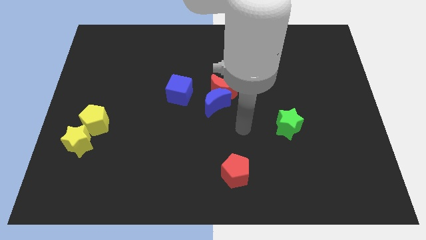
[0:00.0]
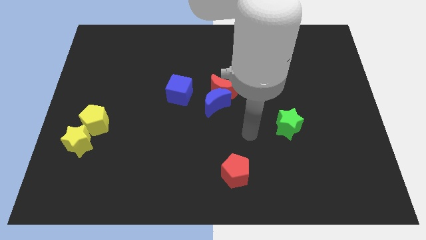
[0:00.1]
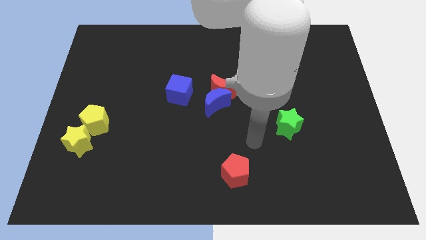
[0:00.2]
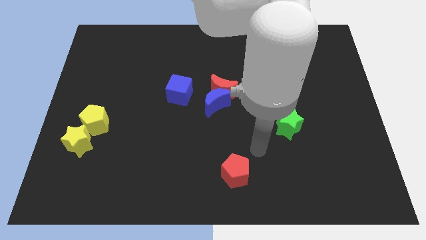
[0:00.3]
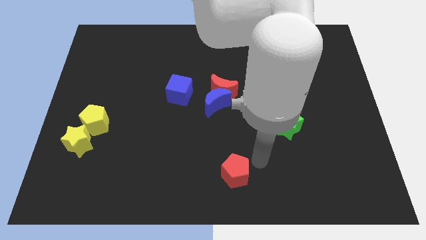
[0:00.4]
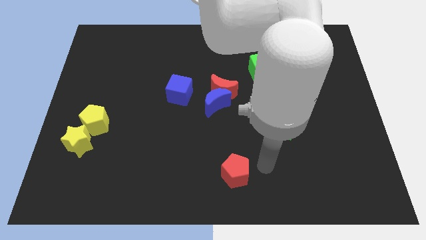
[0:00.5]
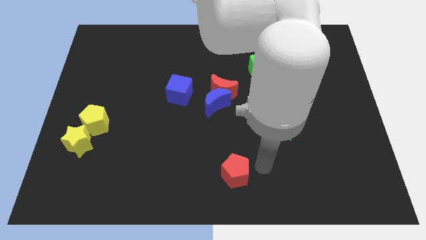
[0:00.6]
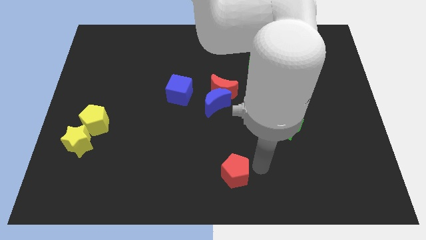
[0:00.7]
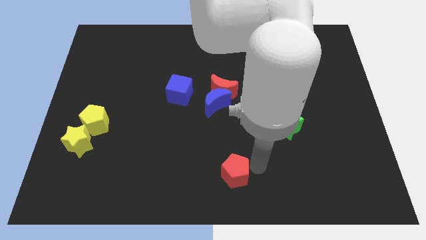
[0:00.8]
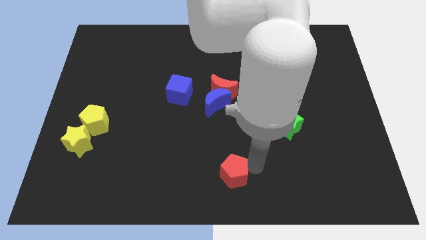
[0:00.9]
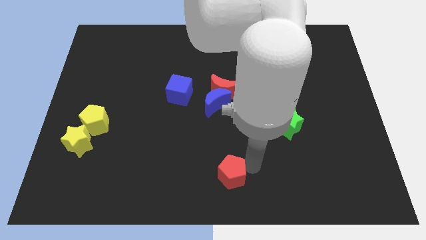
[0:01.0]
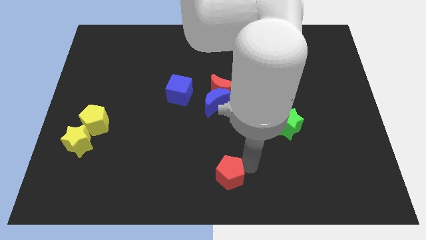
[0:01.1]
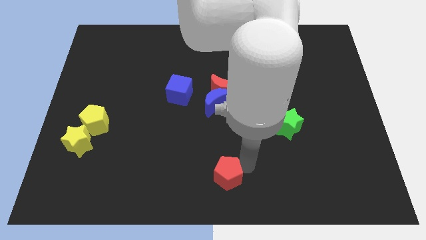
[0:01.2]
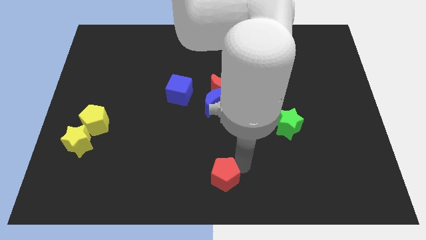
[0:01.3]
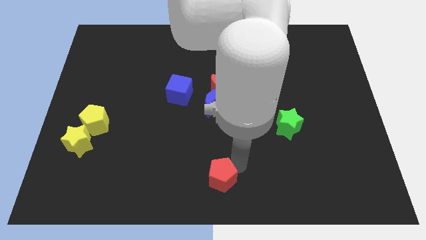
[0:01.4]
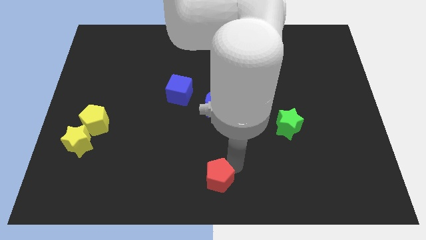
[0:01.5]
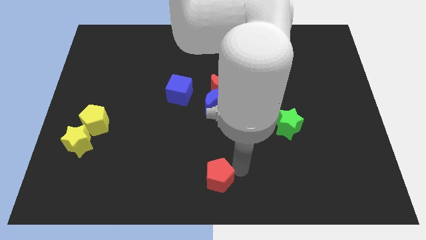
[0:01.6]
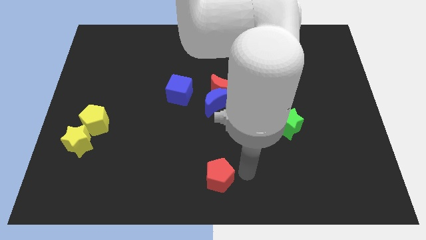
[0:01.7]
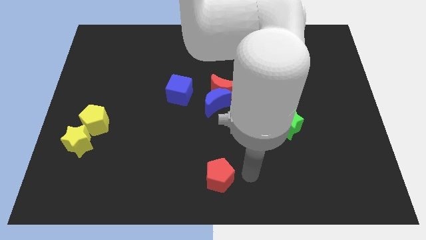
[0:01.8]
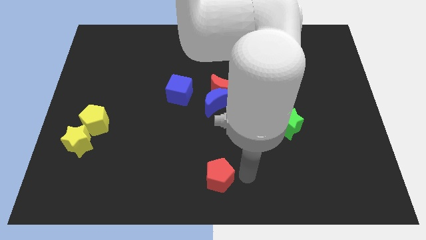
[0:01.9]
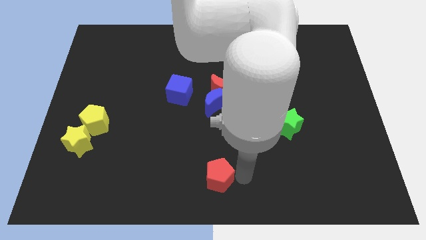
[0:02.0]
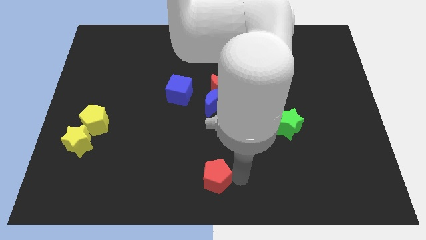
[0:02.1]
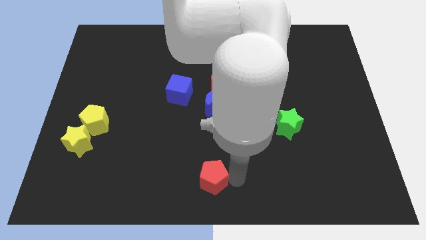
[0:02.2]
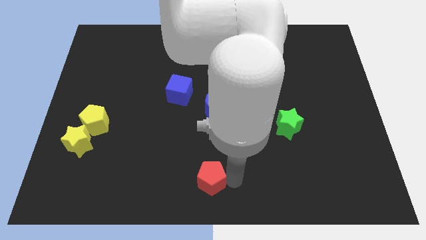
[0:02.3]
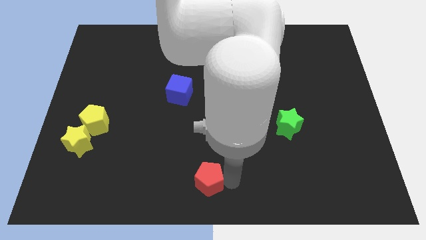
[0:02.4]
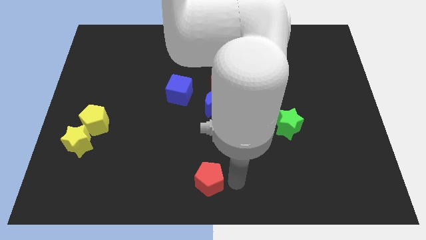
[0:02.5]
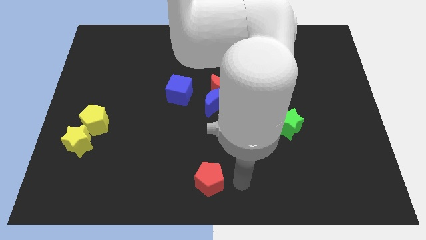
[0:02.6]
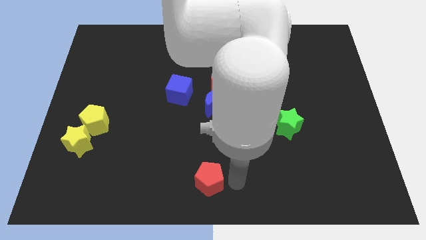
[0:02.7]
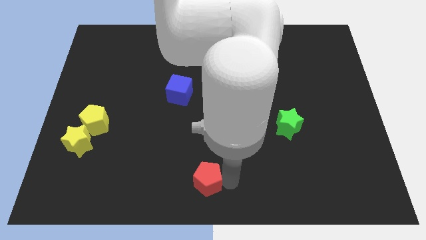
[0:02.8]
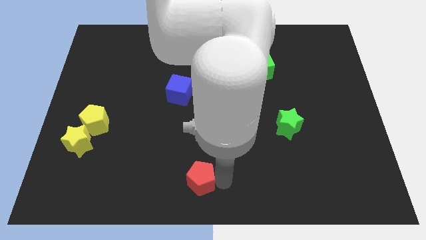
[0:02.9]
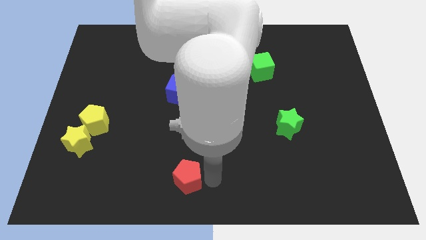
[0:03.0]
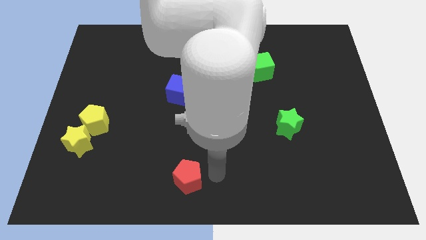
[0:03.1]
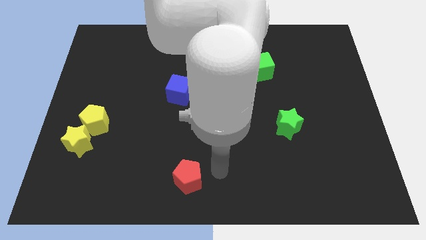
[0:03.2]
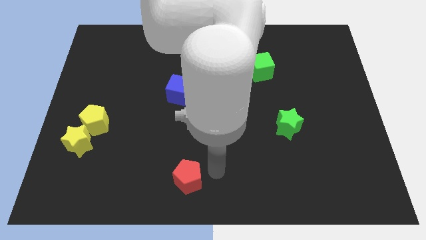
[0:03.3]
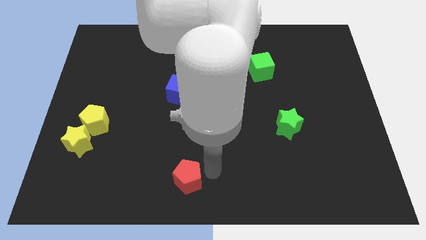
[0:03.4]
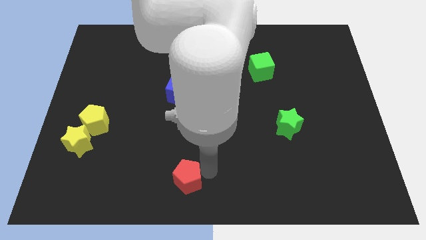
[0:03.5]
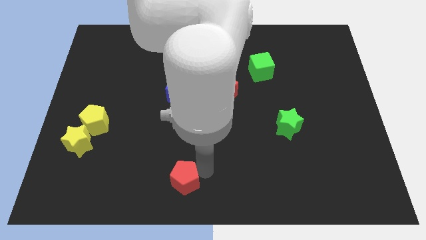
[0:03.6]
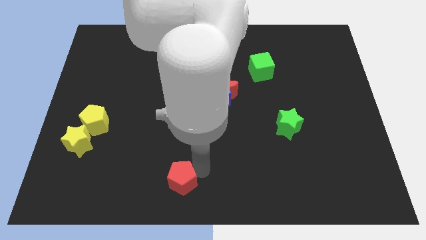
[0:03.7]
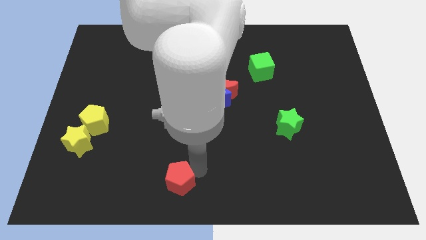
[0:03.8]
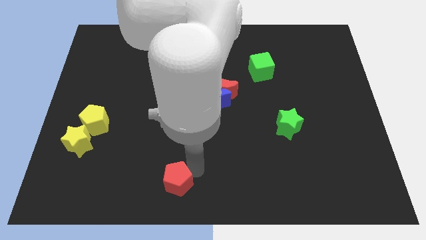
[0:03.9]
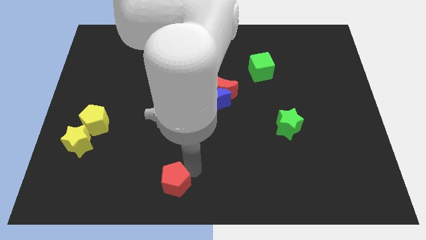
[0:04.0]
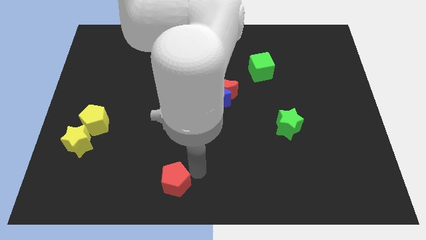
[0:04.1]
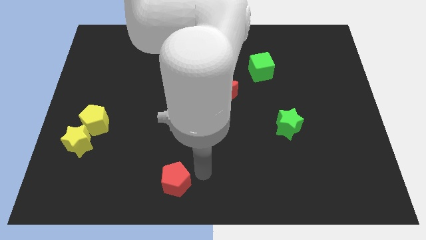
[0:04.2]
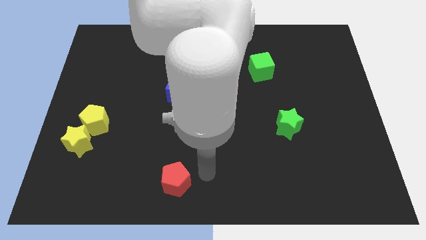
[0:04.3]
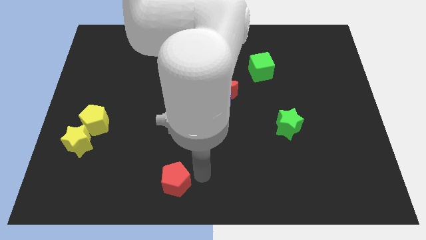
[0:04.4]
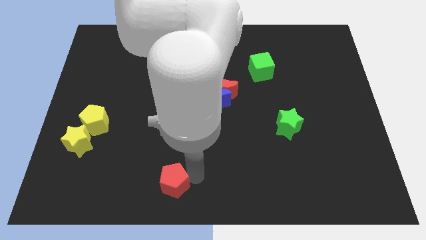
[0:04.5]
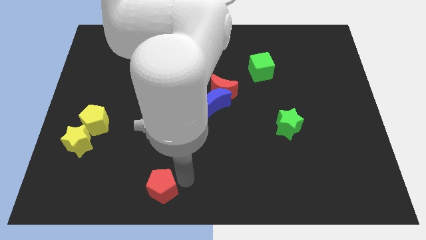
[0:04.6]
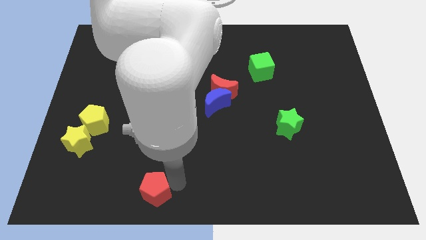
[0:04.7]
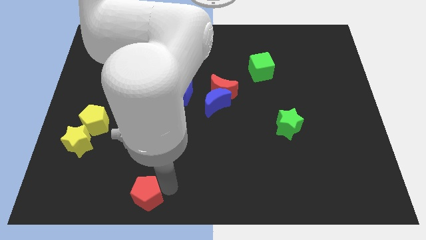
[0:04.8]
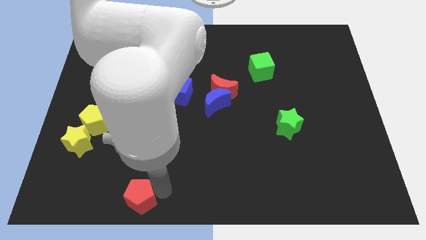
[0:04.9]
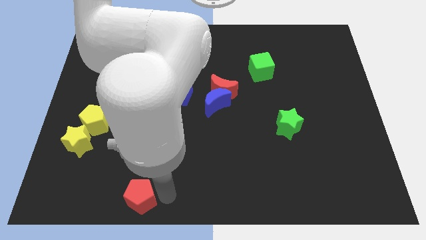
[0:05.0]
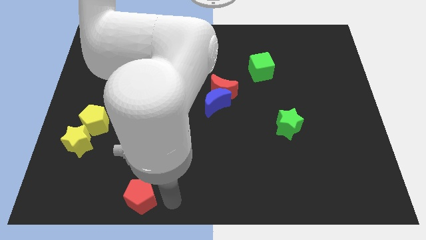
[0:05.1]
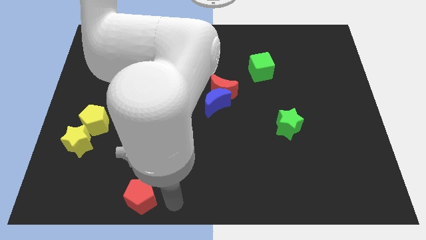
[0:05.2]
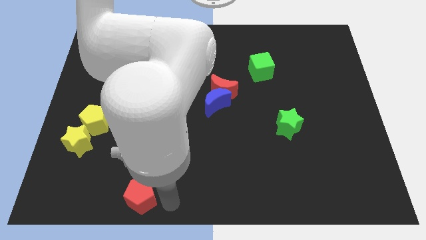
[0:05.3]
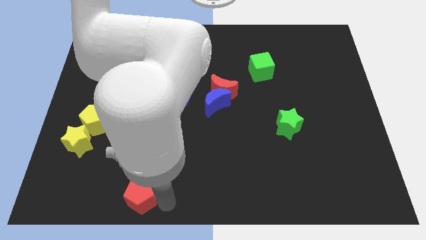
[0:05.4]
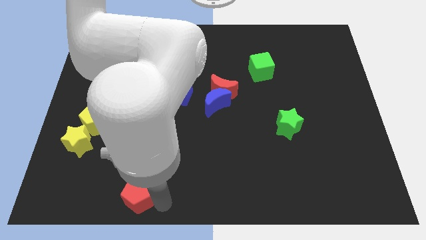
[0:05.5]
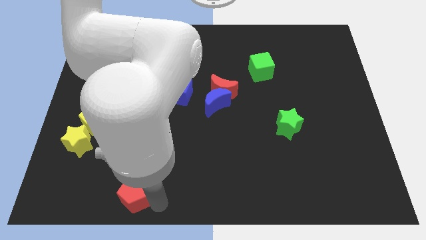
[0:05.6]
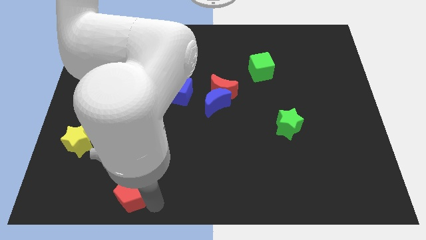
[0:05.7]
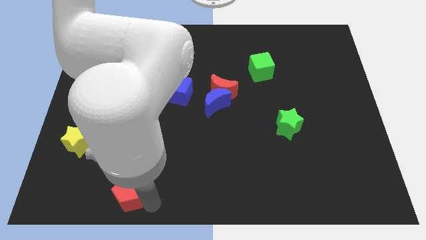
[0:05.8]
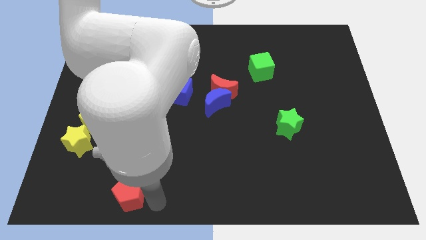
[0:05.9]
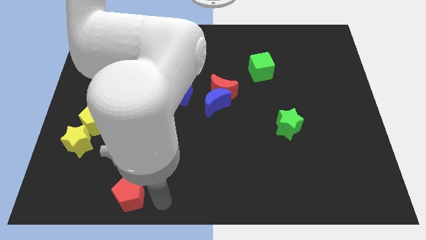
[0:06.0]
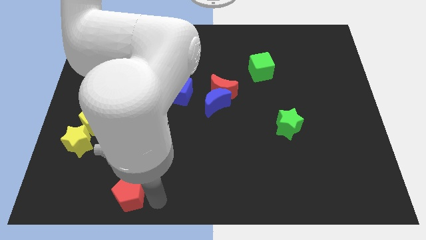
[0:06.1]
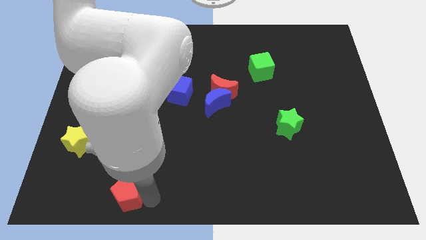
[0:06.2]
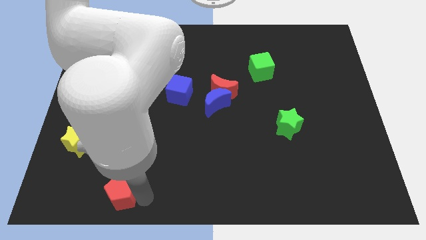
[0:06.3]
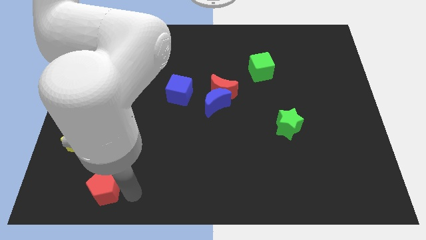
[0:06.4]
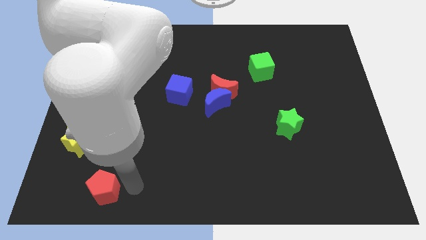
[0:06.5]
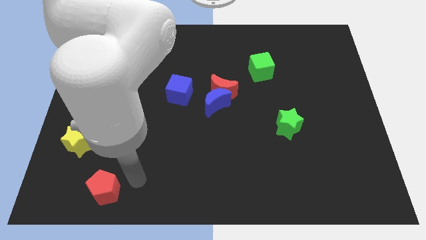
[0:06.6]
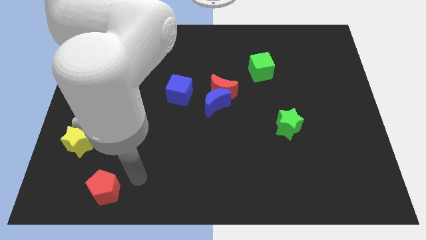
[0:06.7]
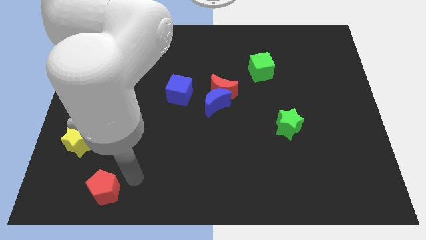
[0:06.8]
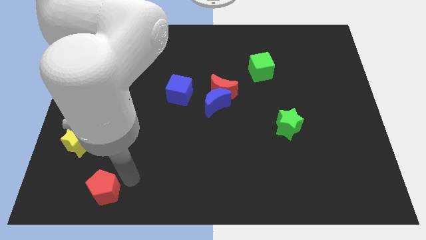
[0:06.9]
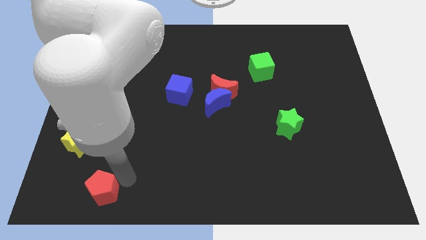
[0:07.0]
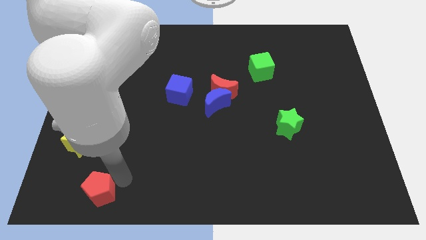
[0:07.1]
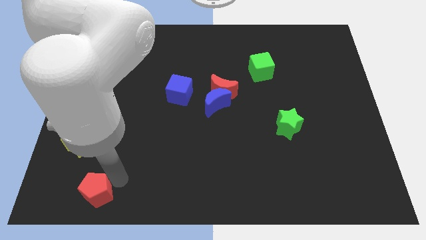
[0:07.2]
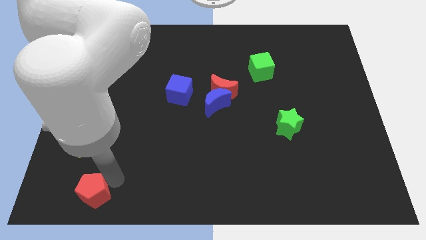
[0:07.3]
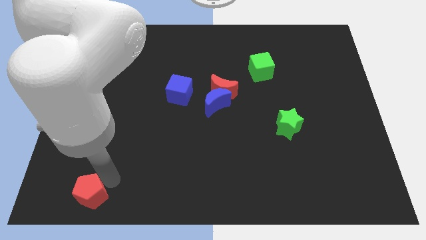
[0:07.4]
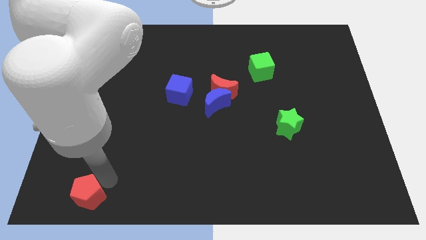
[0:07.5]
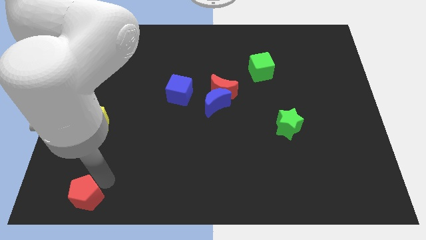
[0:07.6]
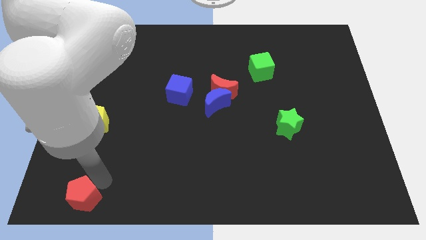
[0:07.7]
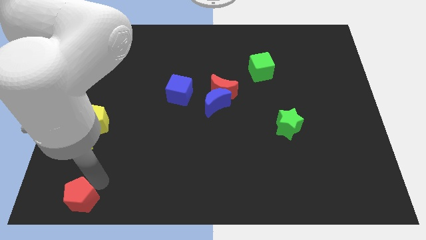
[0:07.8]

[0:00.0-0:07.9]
push the red pentagon to the bottom left of the board
